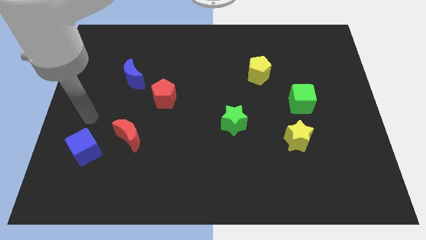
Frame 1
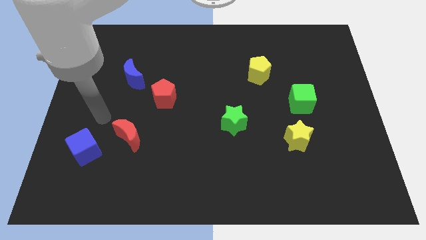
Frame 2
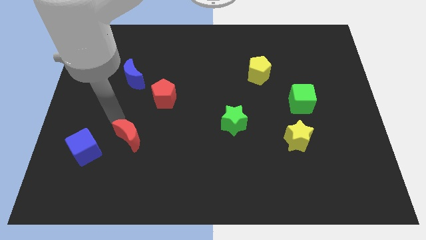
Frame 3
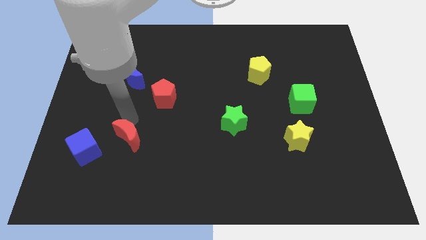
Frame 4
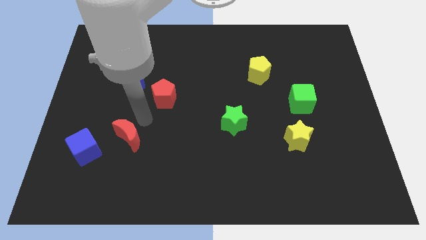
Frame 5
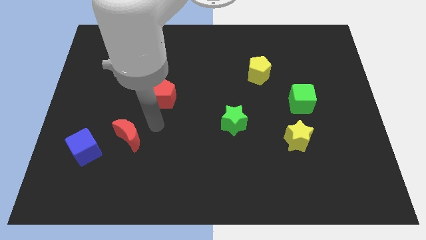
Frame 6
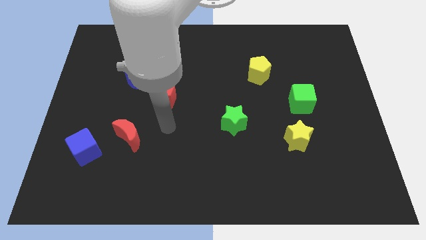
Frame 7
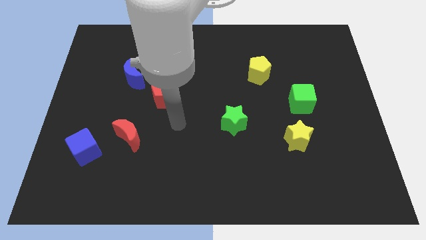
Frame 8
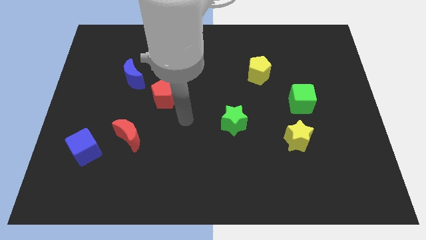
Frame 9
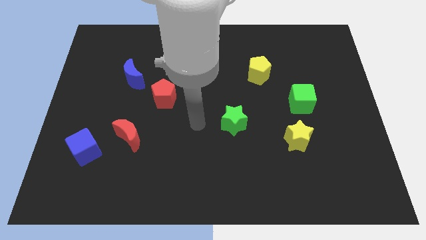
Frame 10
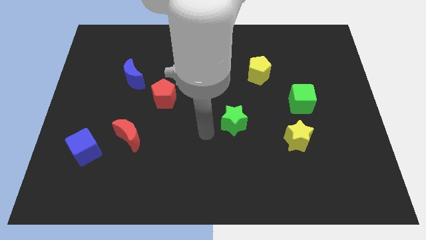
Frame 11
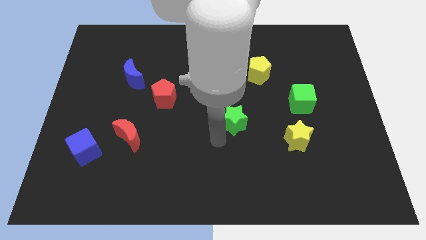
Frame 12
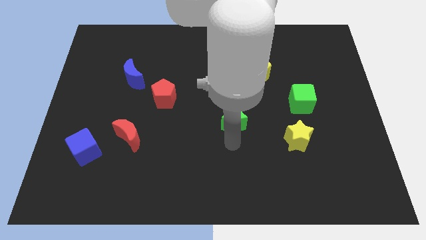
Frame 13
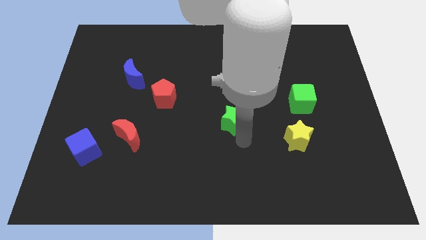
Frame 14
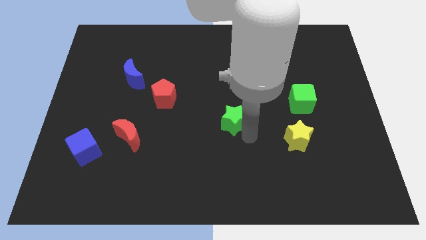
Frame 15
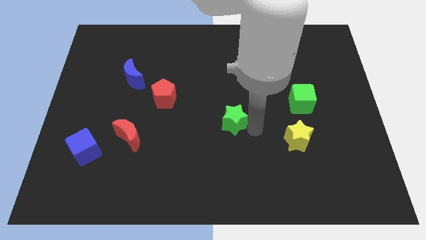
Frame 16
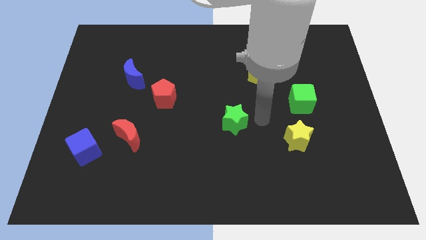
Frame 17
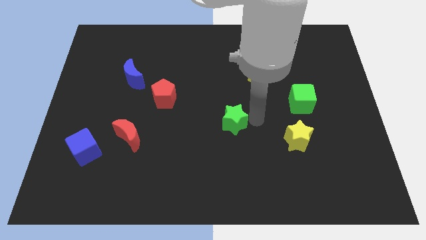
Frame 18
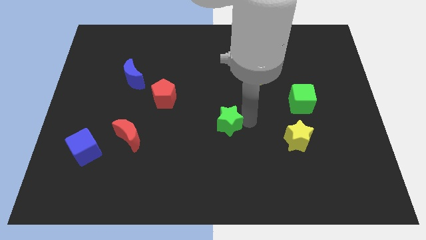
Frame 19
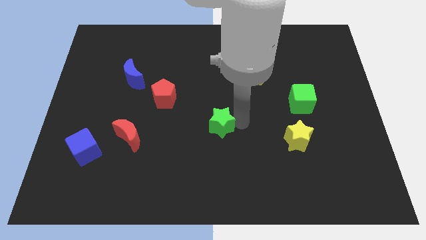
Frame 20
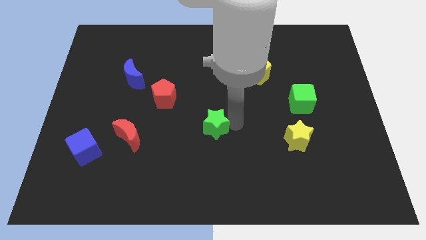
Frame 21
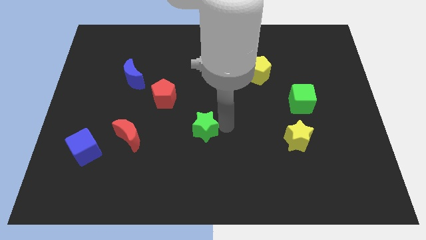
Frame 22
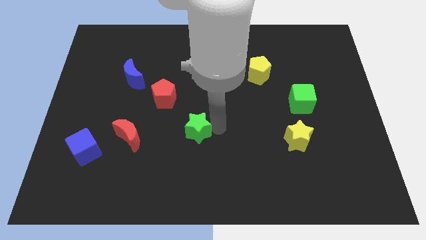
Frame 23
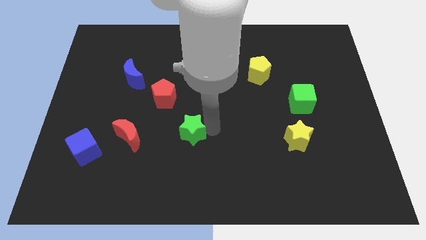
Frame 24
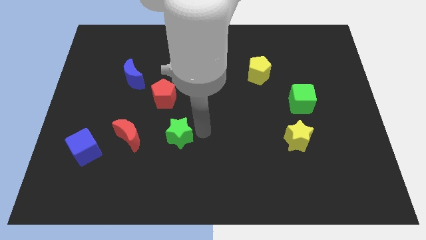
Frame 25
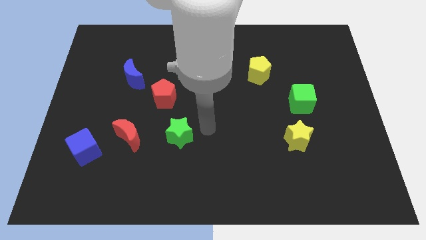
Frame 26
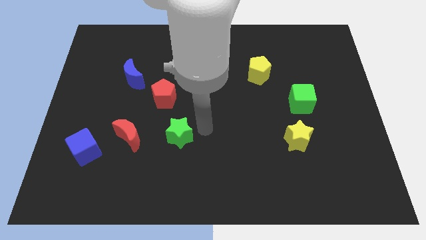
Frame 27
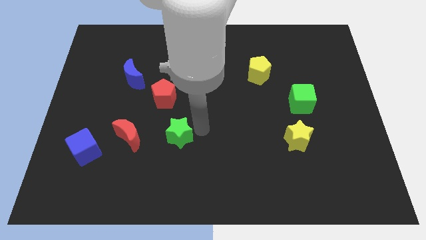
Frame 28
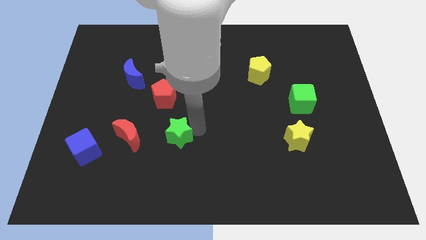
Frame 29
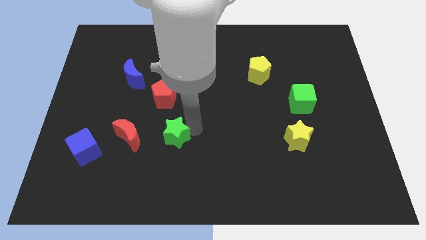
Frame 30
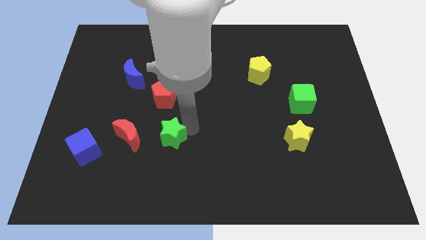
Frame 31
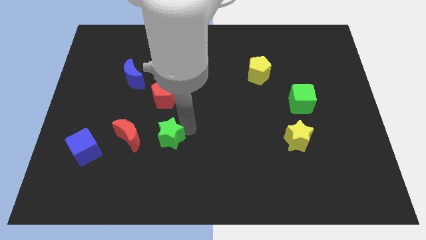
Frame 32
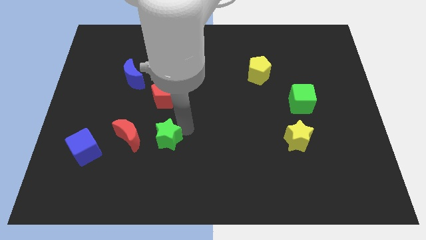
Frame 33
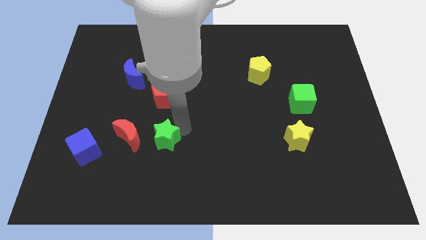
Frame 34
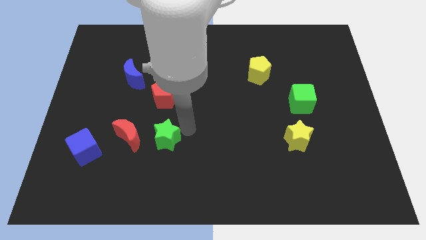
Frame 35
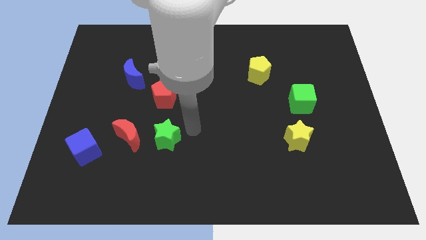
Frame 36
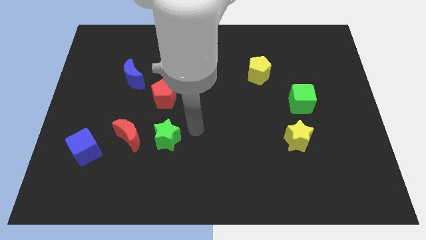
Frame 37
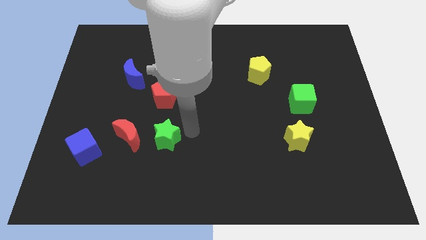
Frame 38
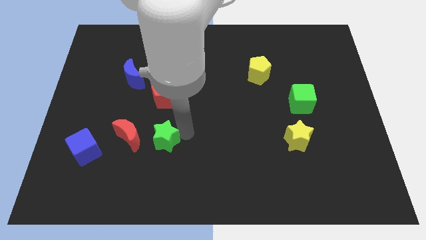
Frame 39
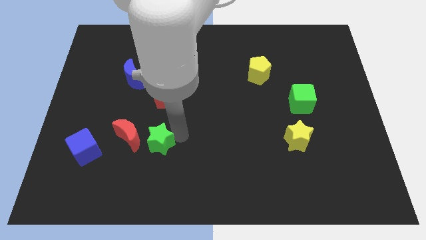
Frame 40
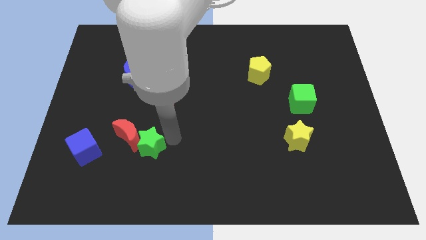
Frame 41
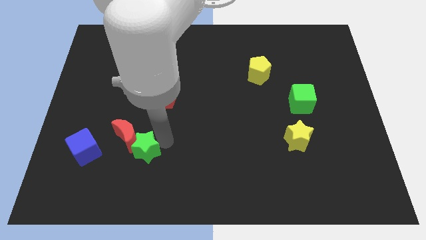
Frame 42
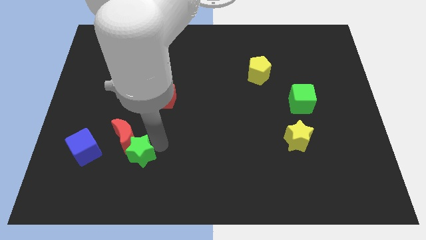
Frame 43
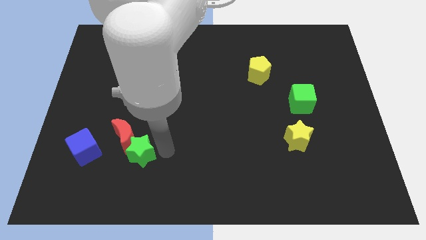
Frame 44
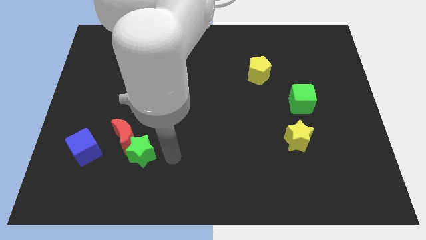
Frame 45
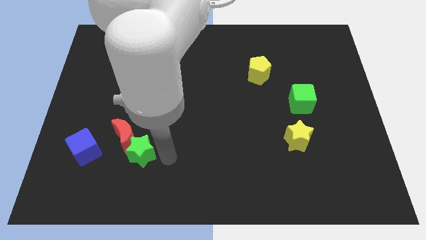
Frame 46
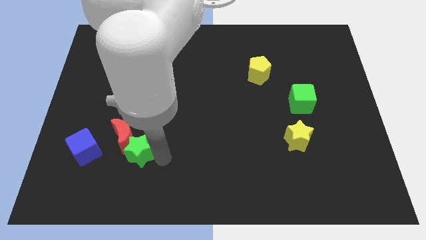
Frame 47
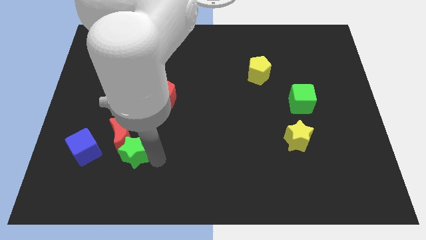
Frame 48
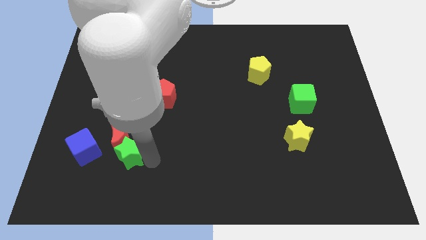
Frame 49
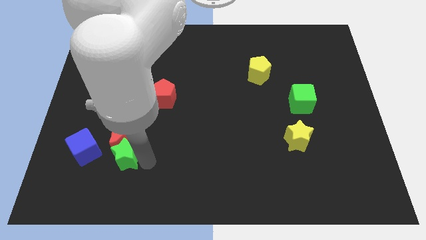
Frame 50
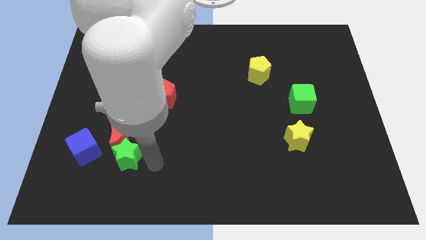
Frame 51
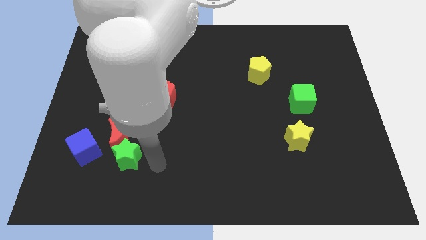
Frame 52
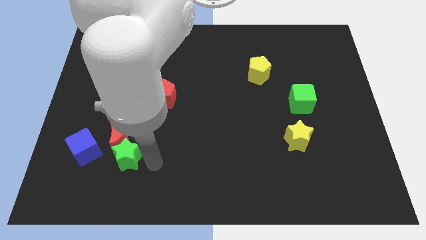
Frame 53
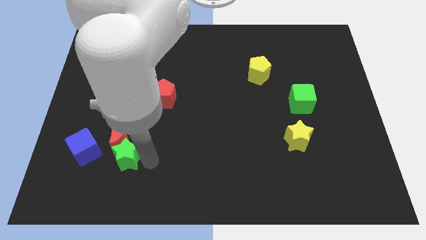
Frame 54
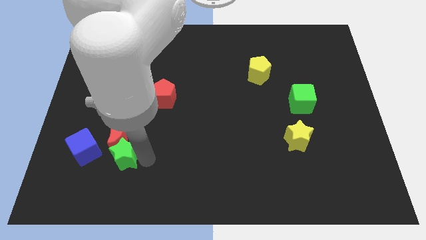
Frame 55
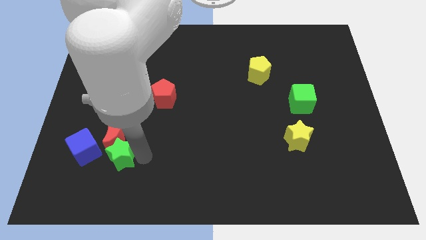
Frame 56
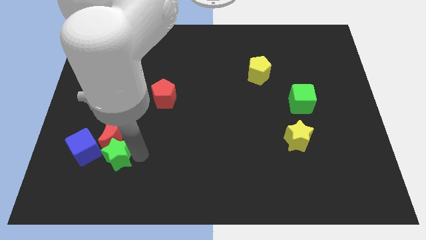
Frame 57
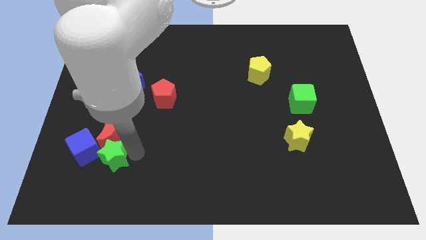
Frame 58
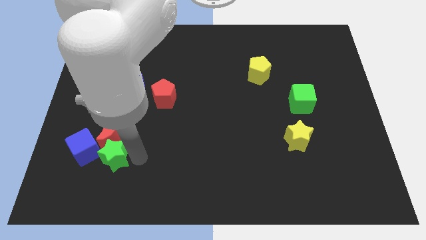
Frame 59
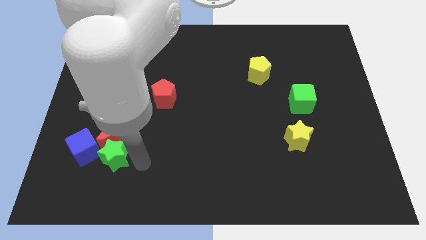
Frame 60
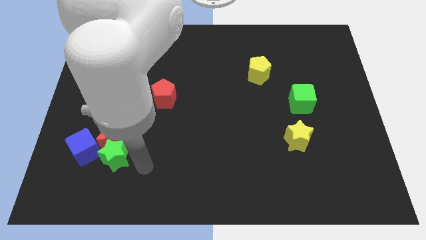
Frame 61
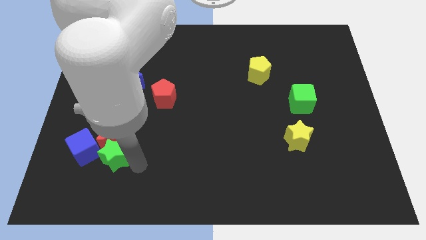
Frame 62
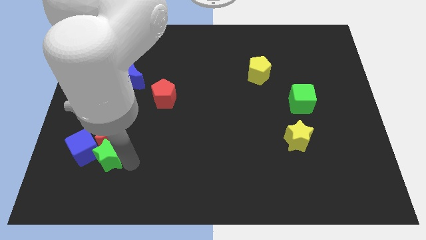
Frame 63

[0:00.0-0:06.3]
put the green star to the blue cube
